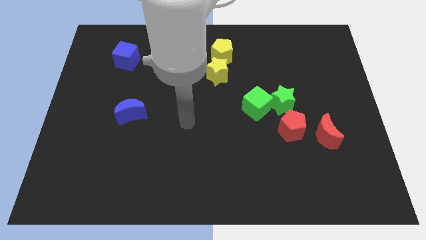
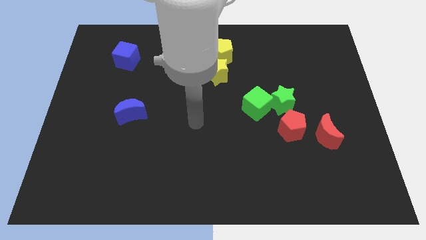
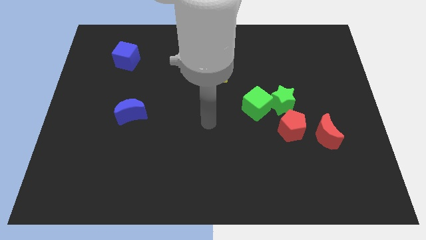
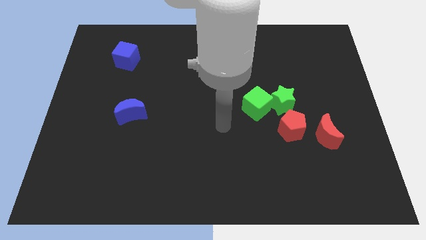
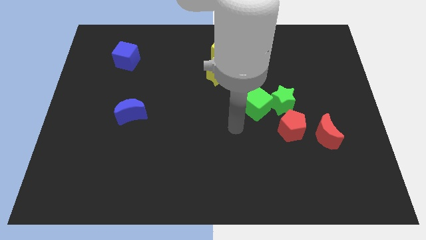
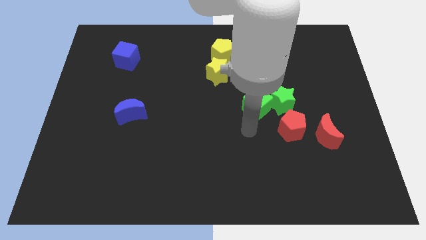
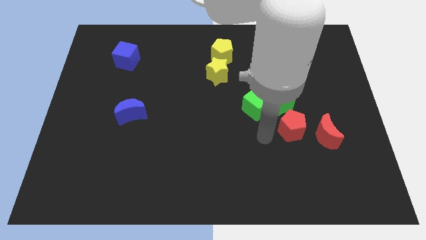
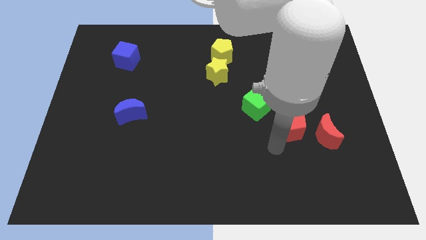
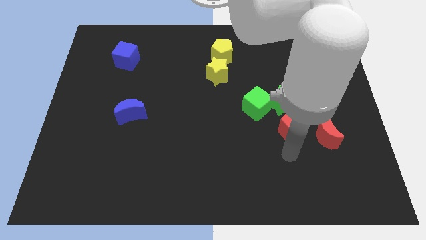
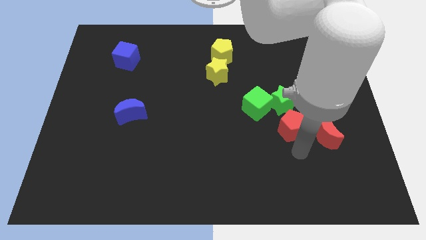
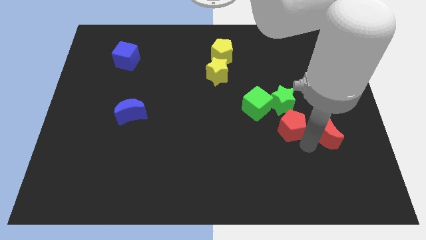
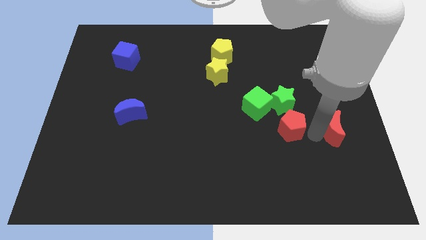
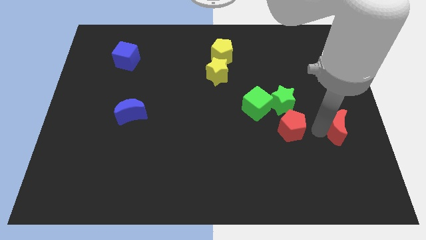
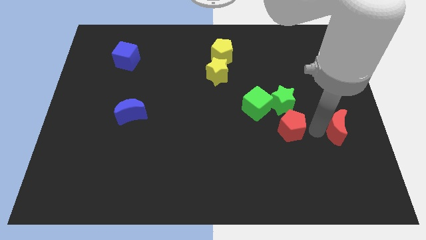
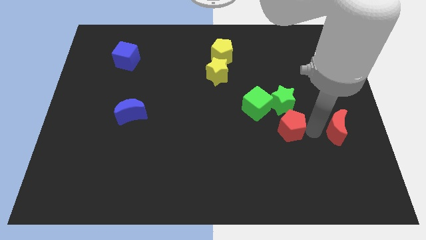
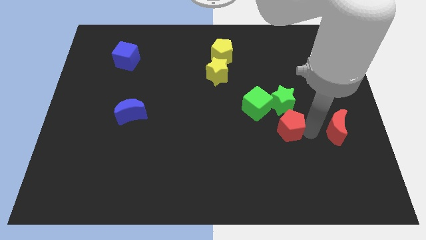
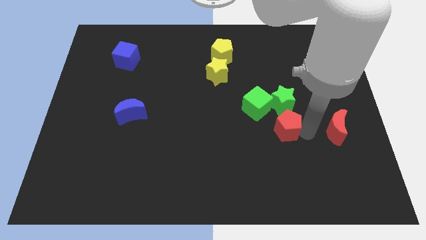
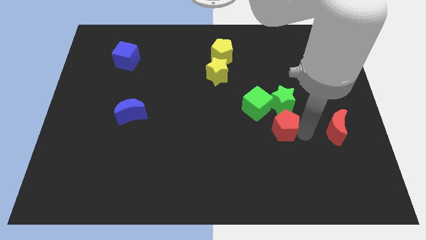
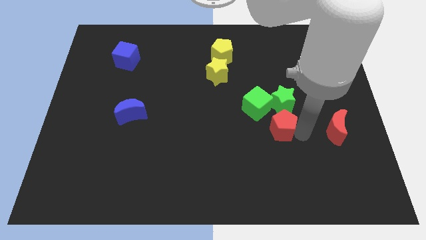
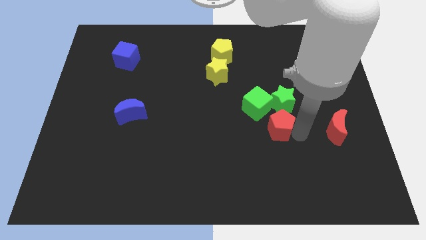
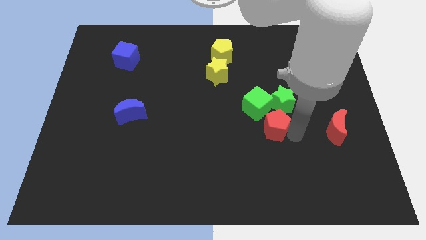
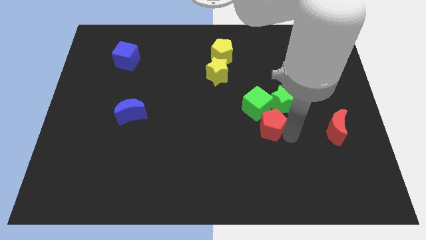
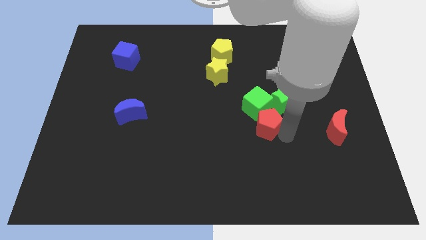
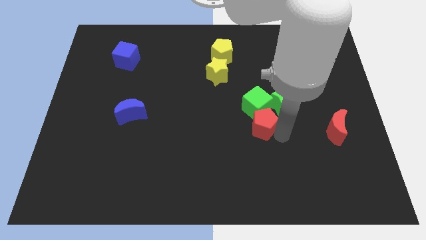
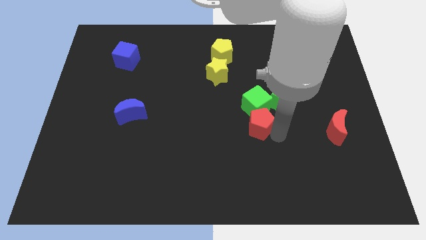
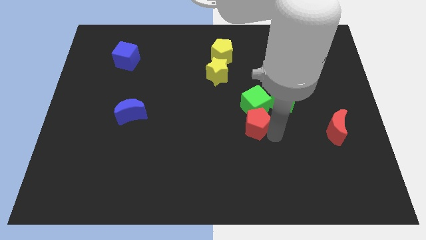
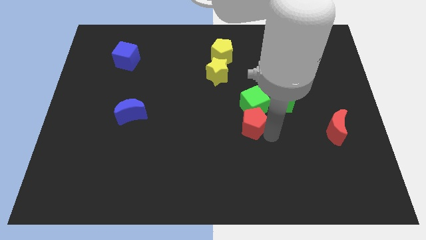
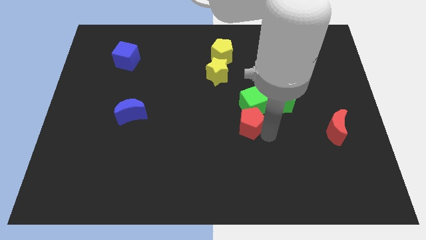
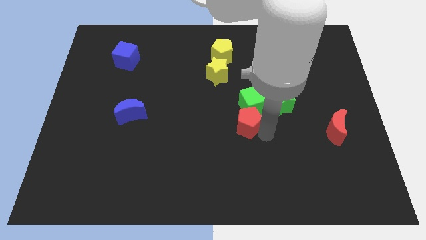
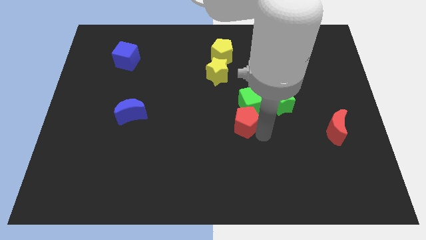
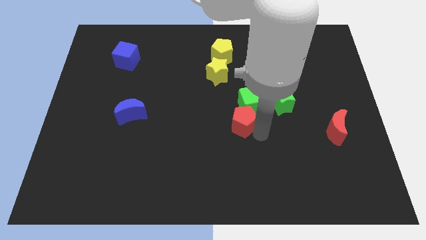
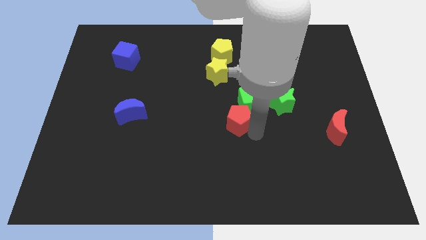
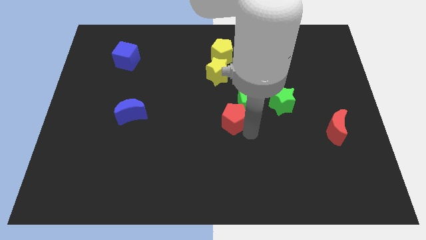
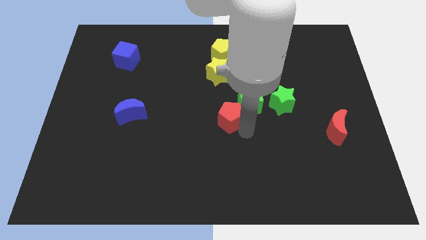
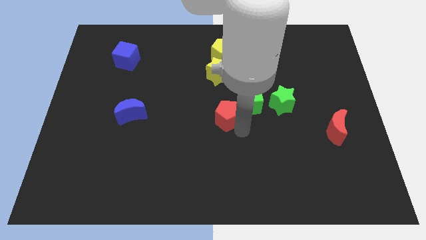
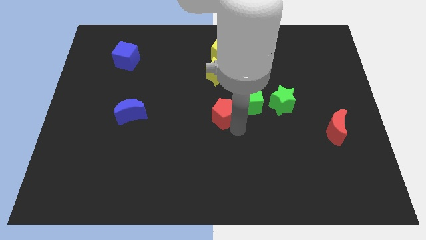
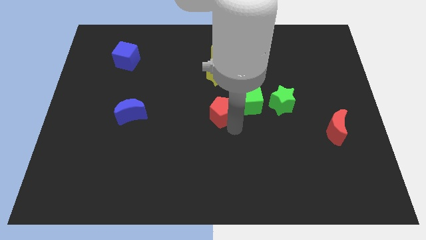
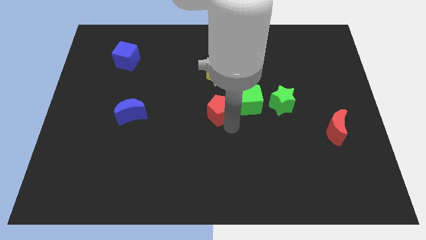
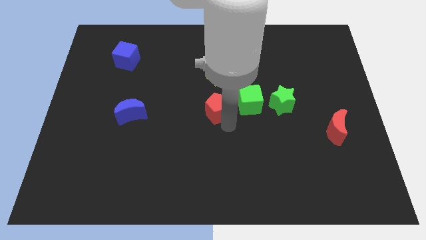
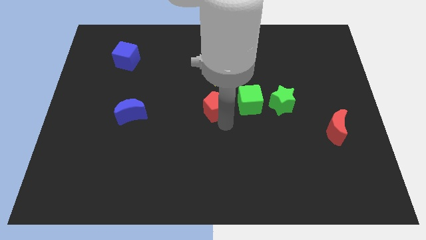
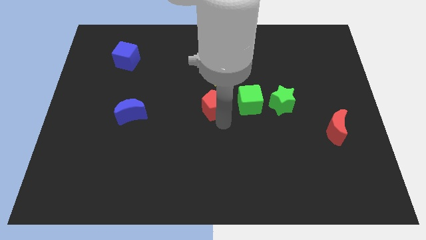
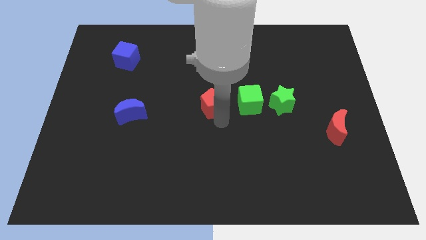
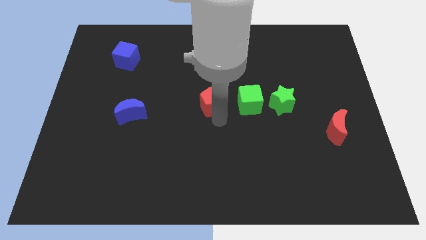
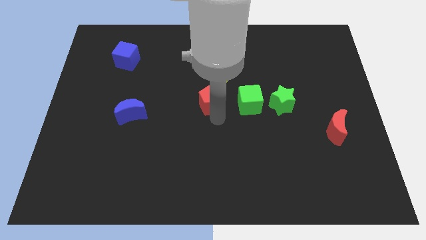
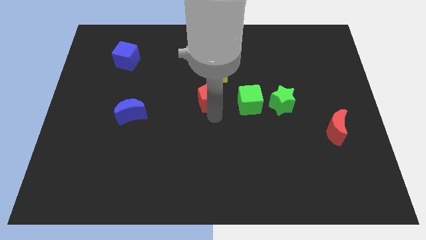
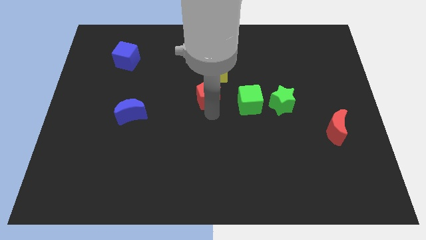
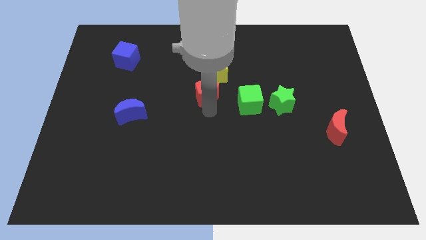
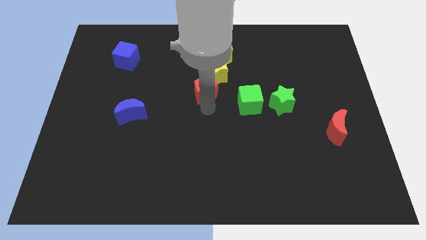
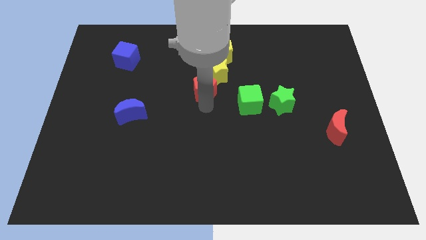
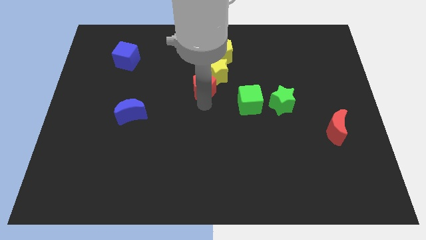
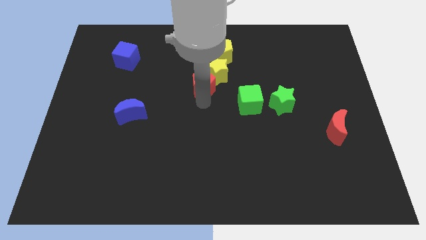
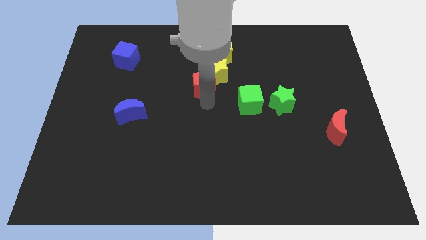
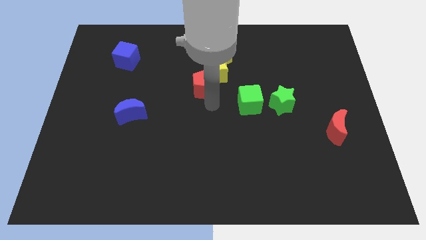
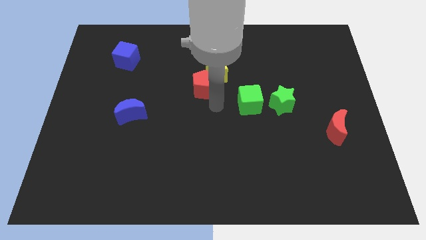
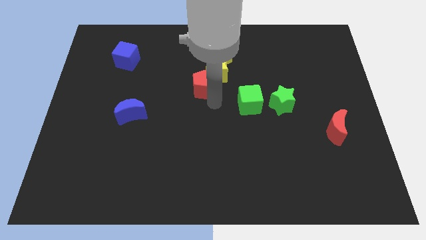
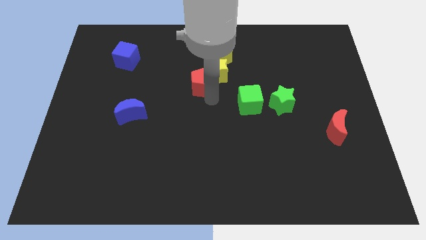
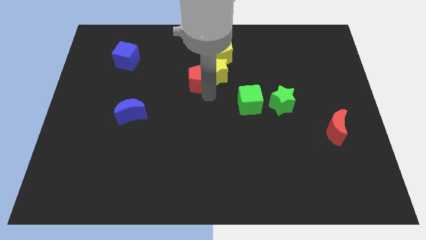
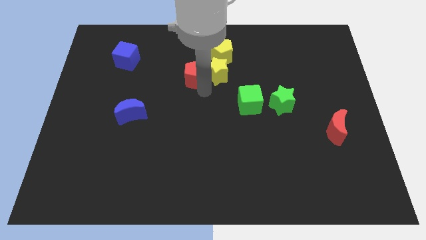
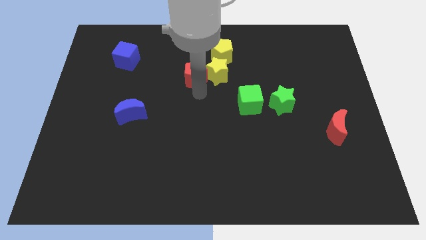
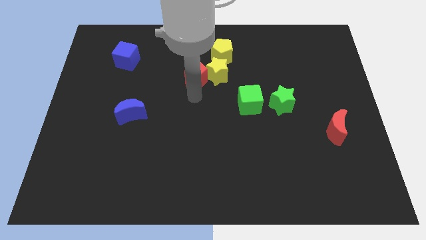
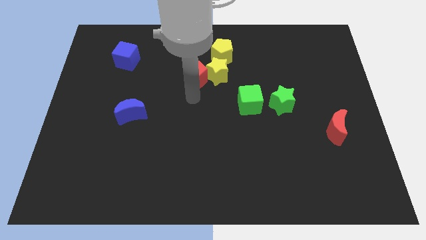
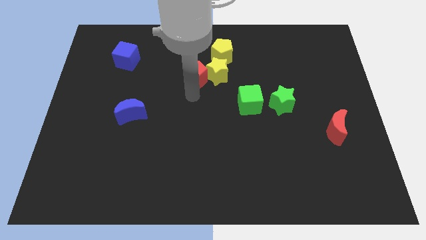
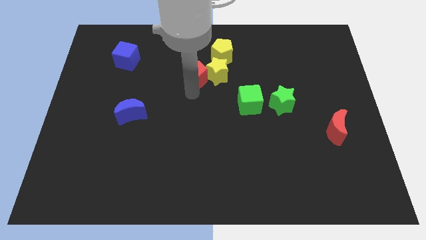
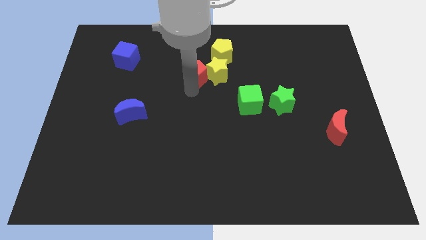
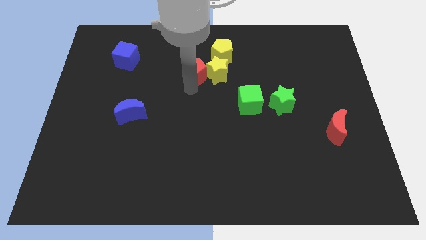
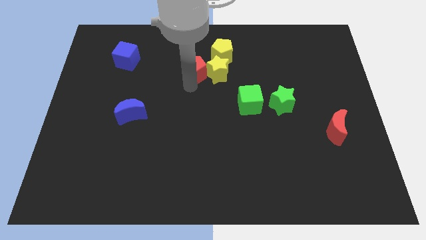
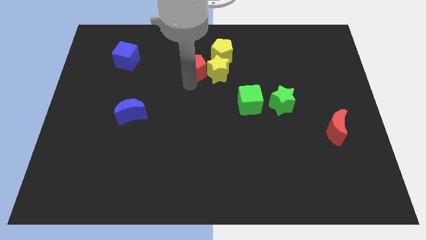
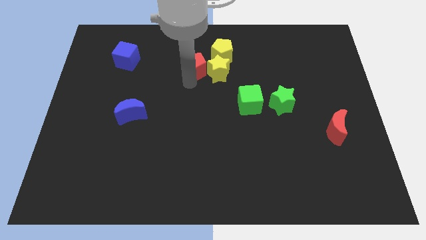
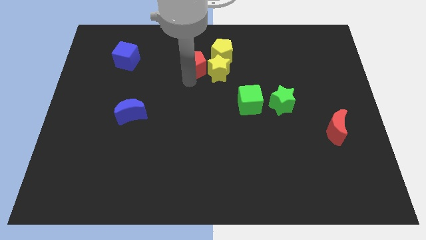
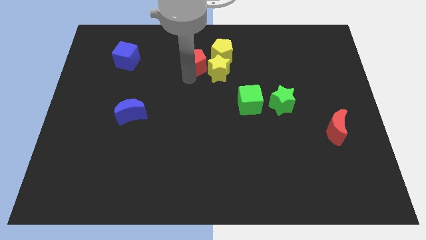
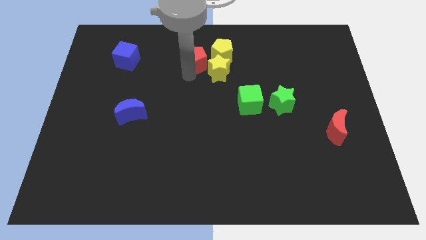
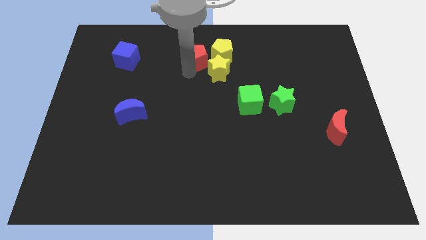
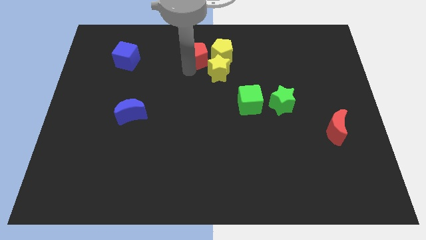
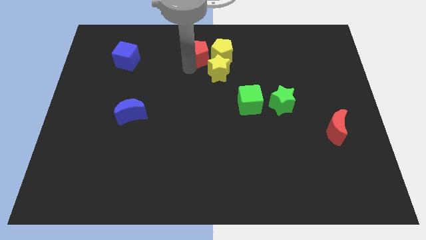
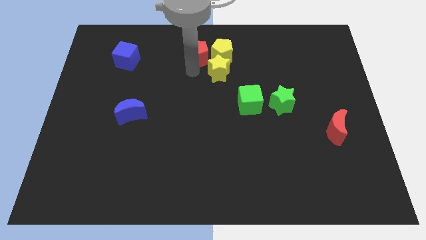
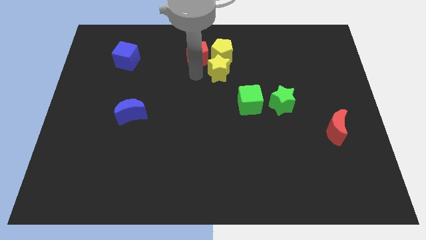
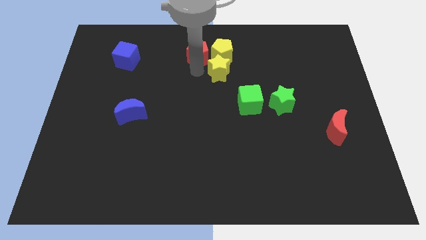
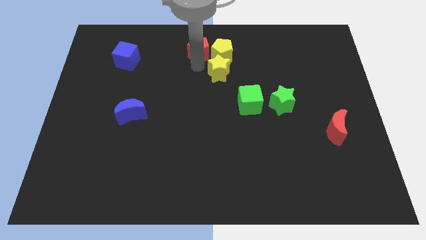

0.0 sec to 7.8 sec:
put the red pentagon to the towards your base
